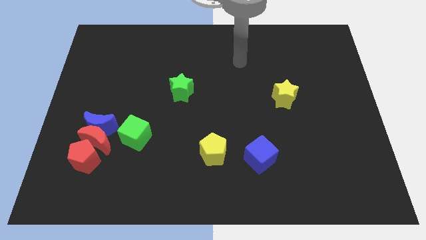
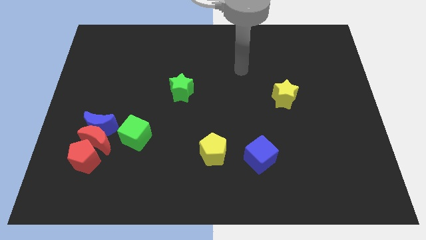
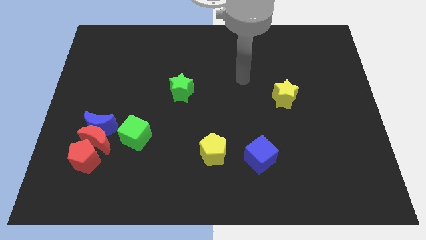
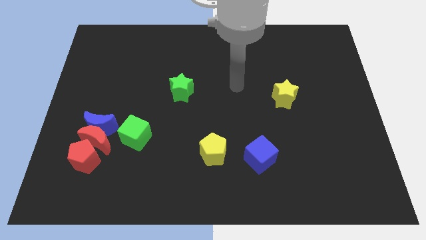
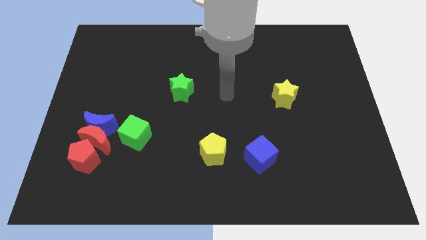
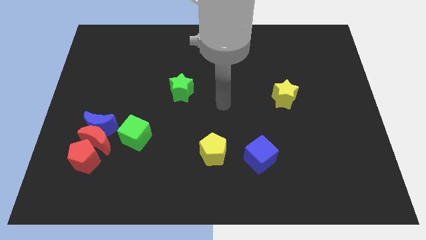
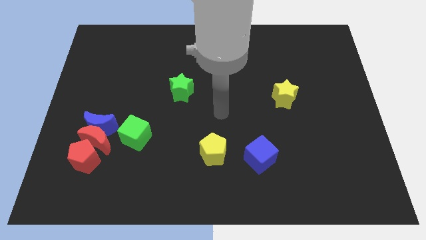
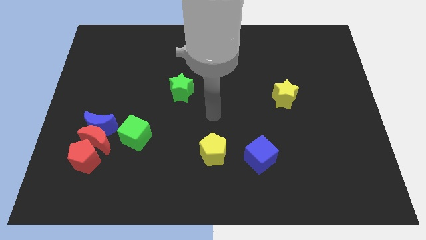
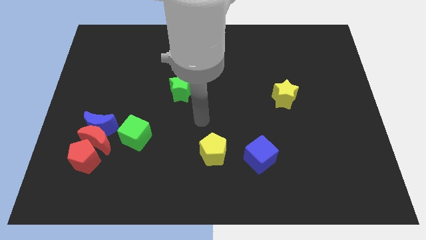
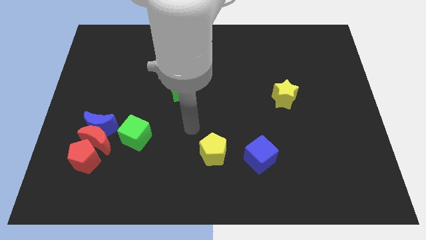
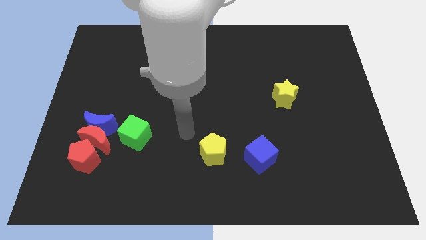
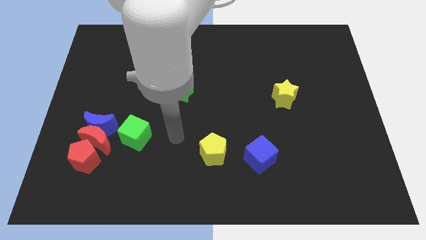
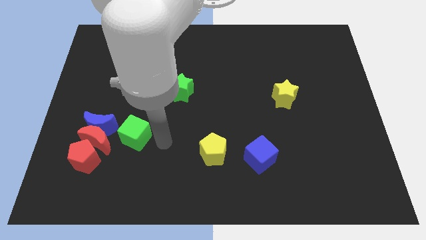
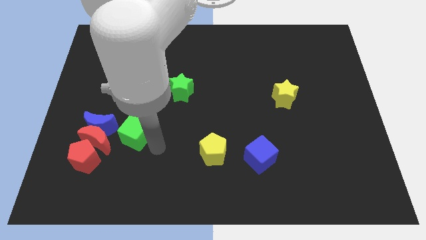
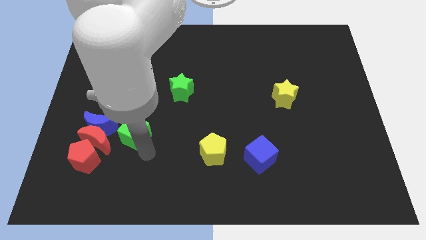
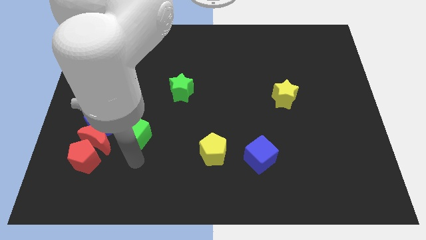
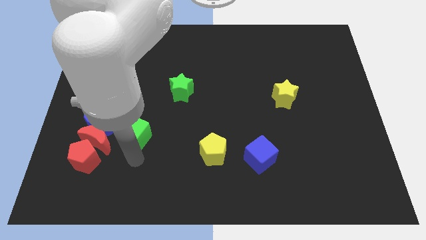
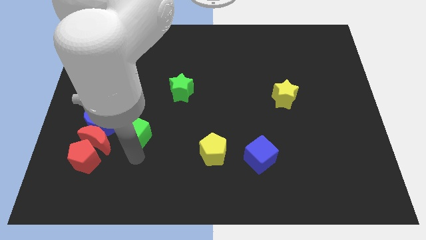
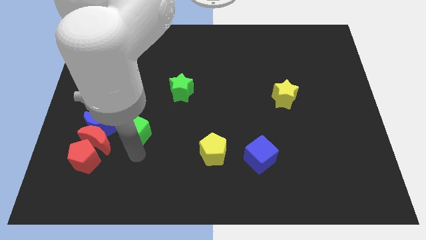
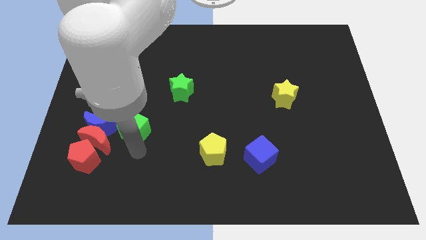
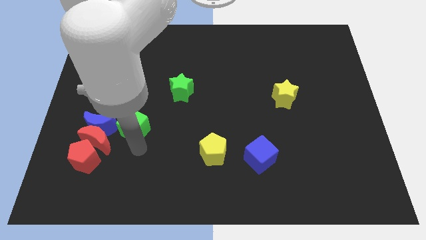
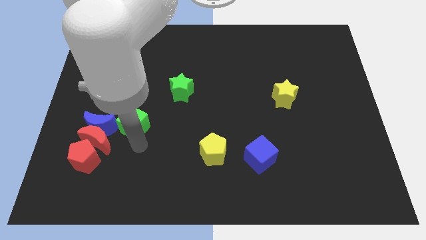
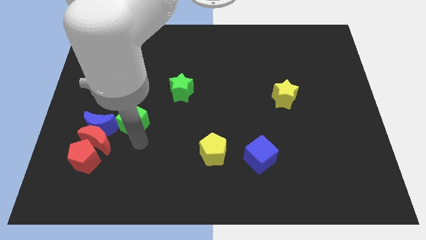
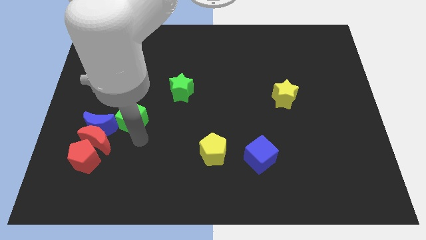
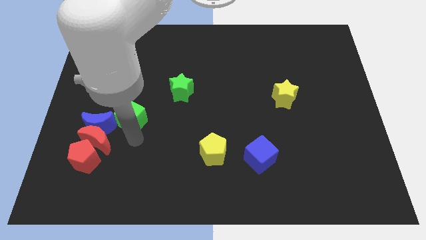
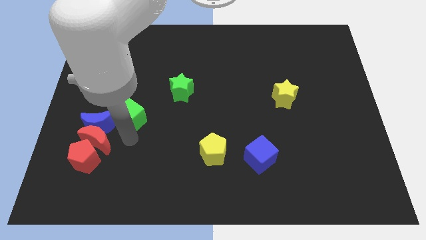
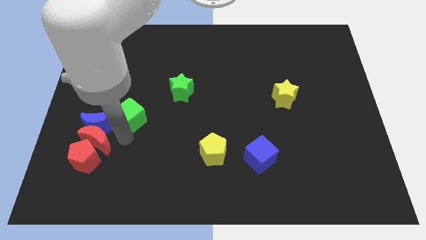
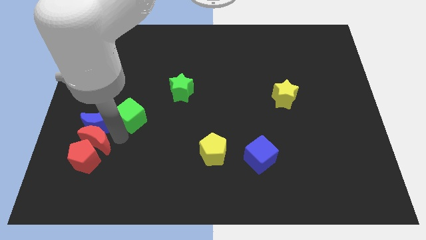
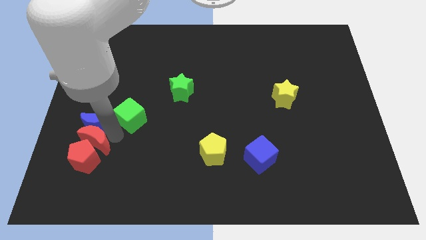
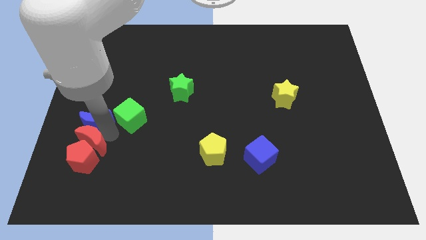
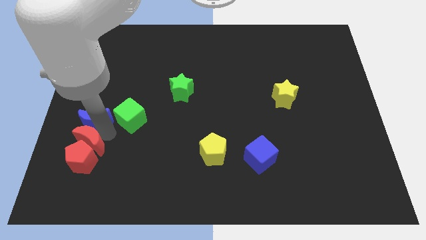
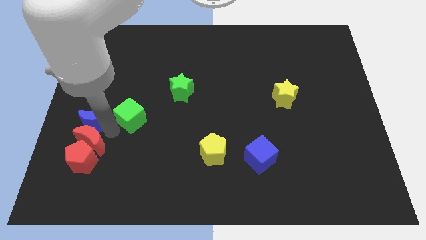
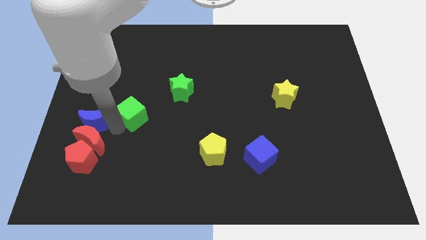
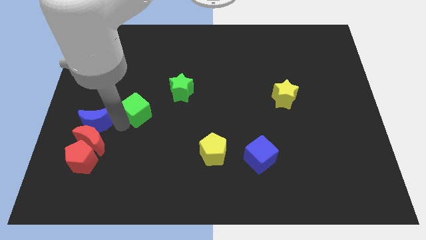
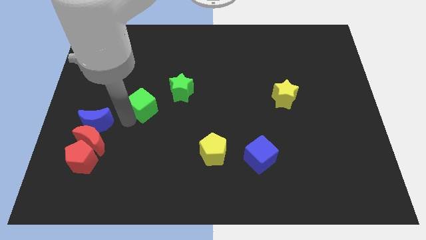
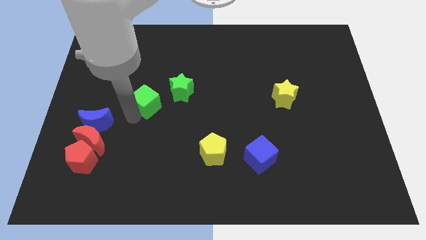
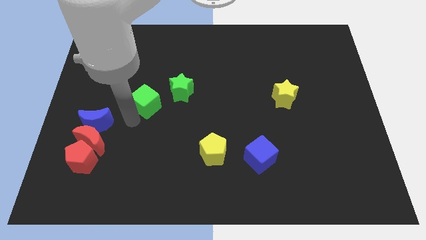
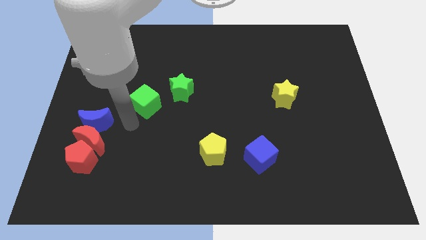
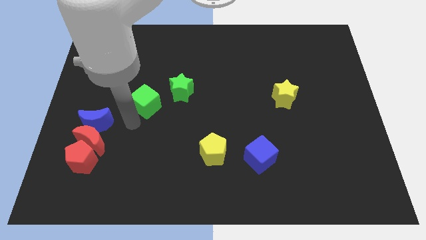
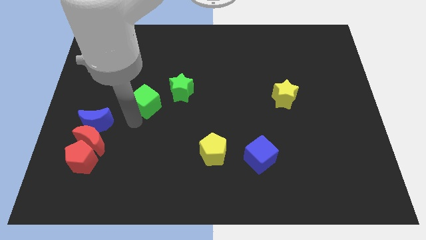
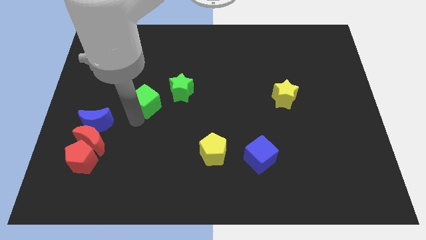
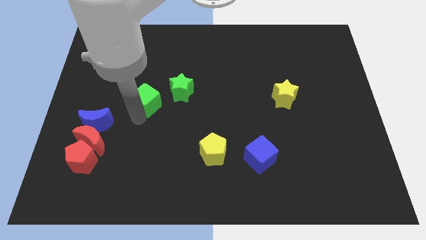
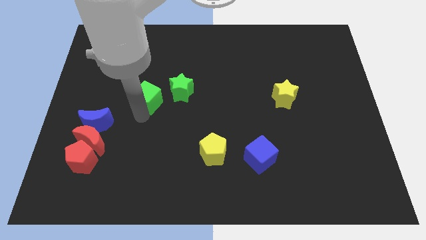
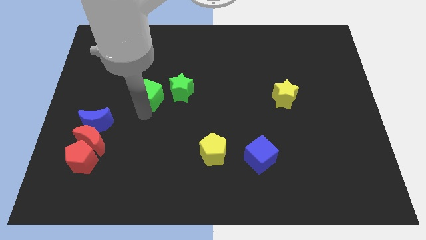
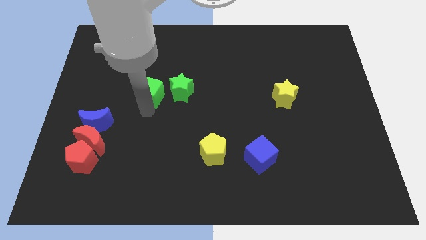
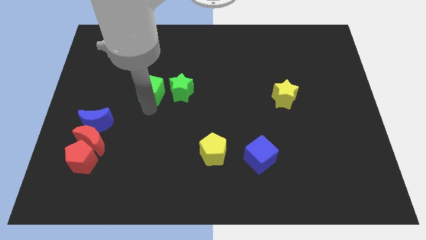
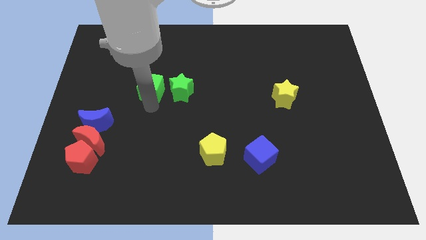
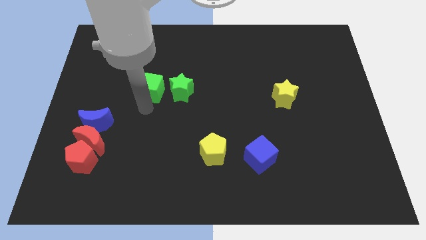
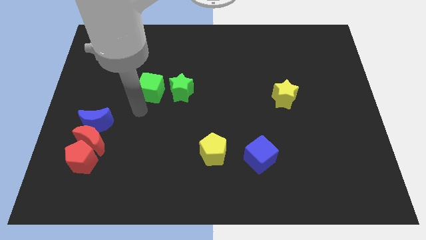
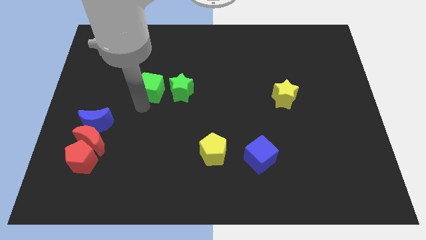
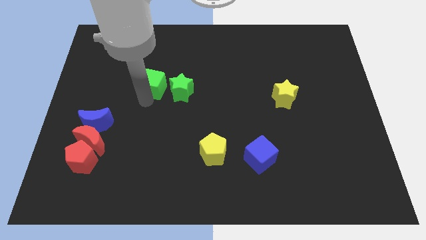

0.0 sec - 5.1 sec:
move the green cube to the top left of the green star

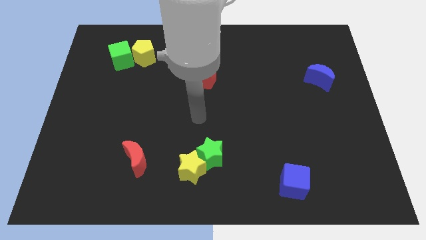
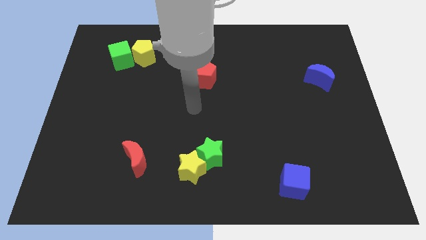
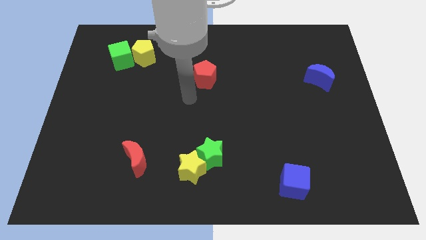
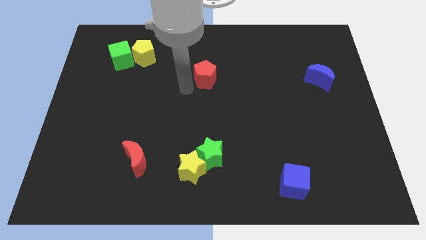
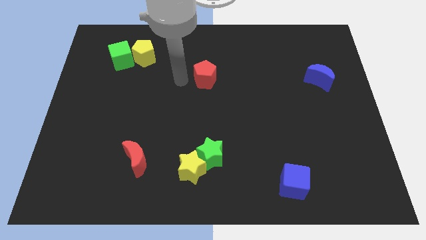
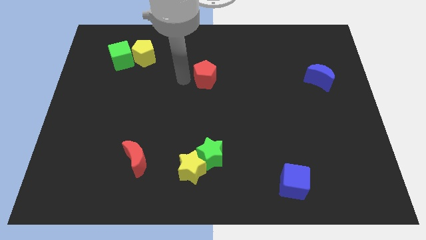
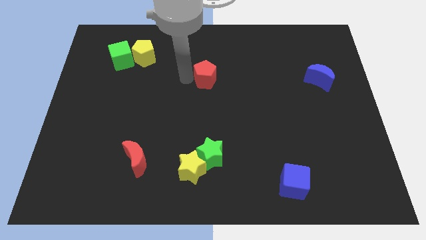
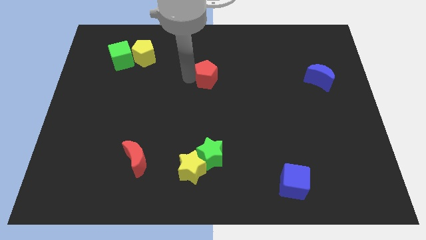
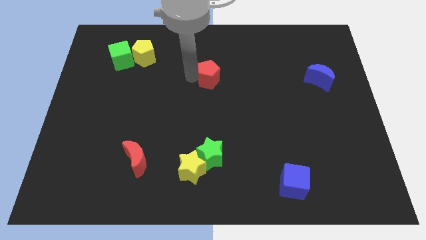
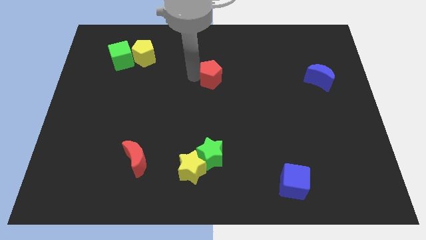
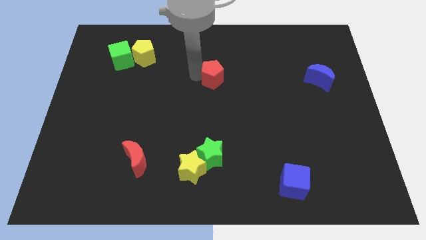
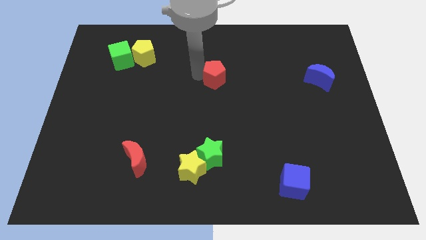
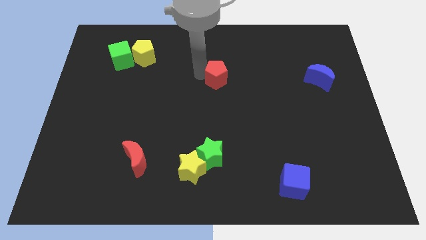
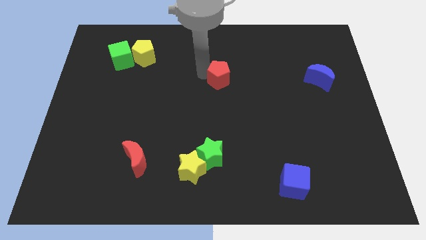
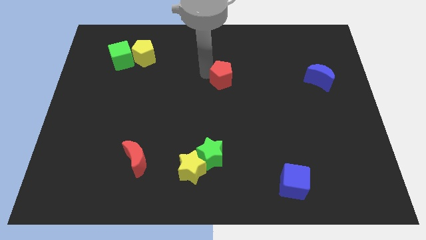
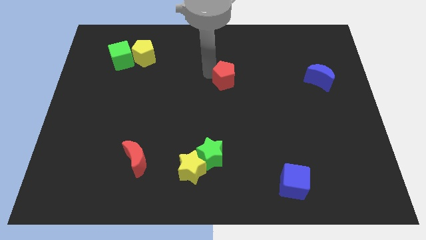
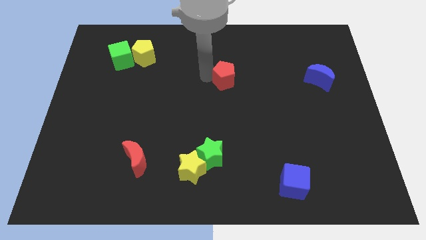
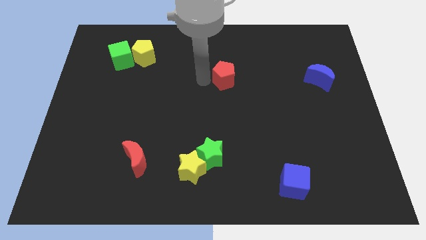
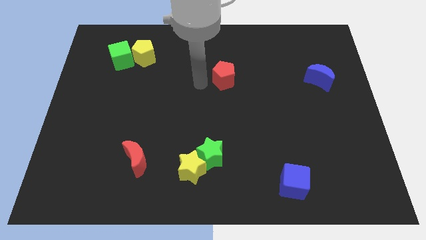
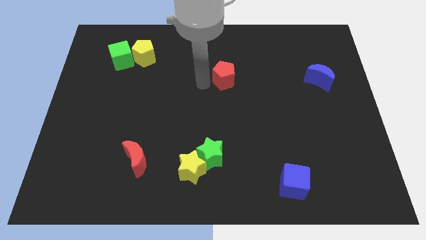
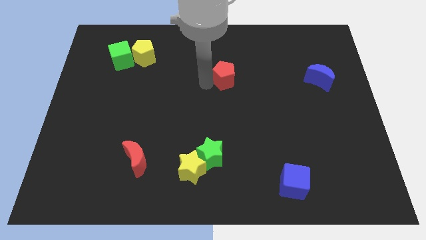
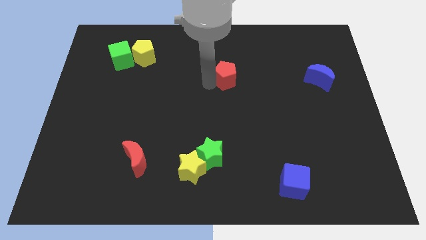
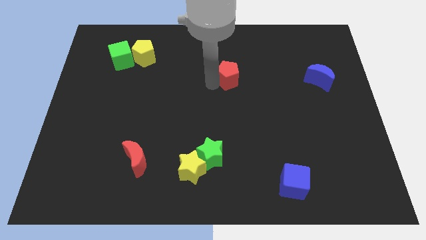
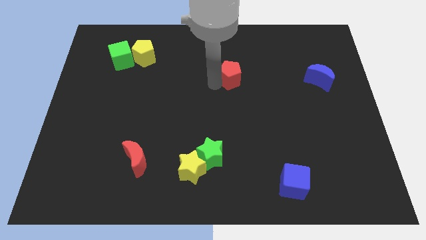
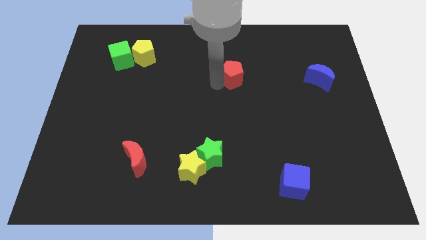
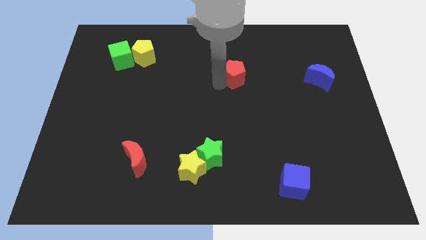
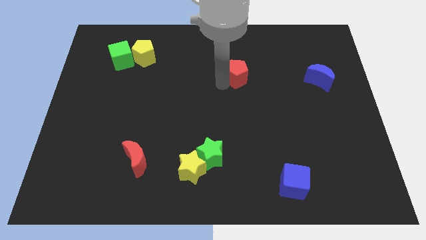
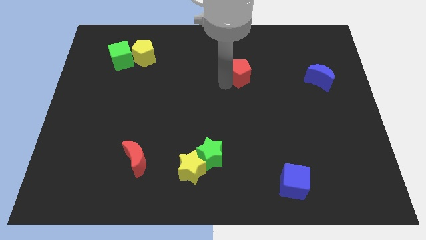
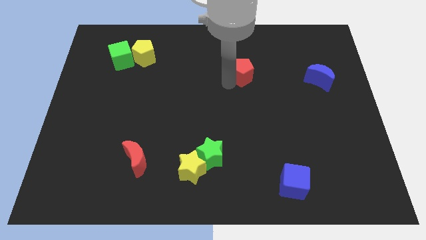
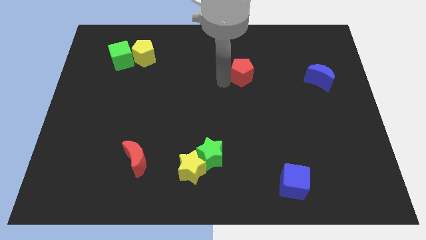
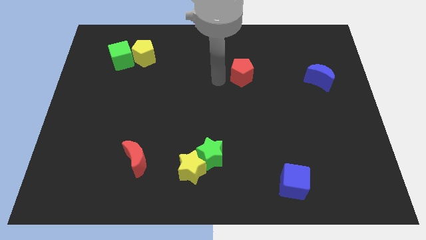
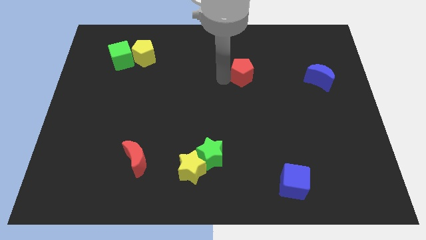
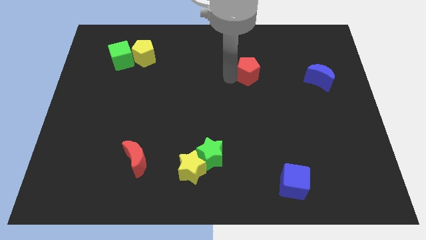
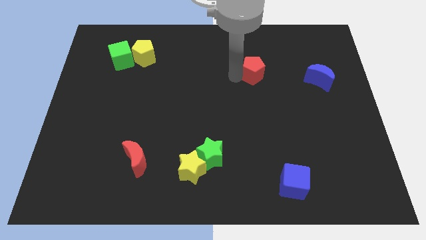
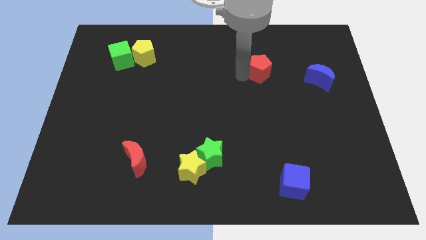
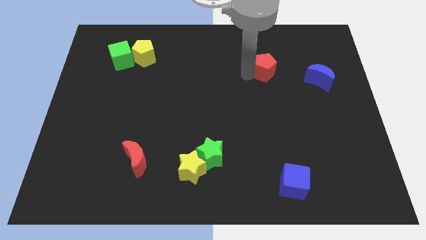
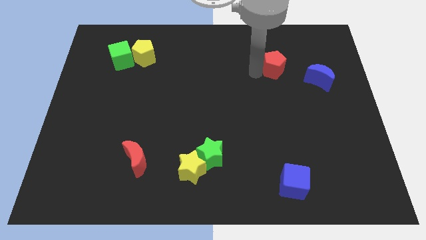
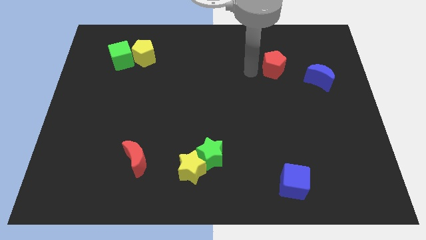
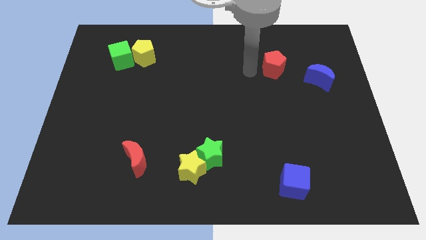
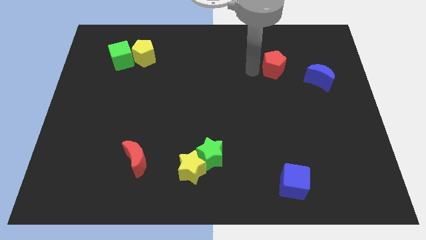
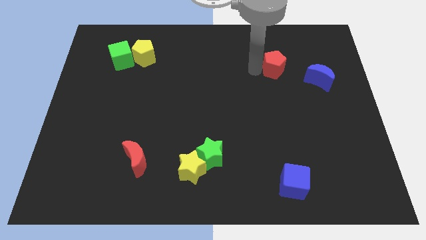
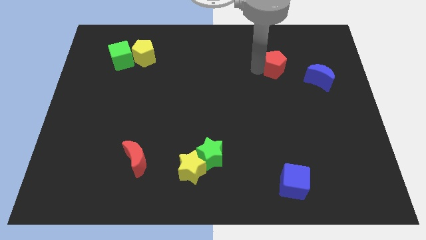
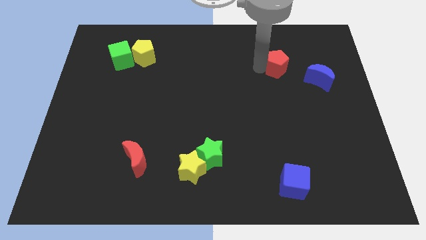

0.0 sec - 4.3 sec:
move the red pentagon to the top left side of the blue moon
